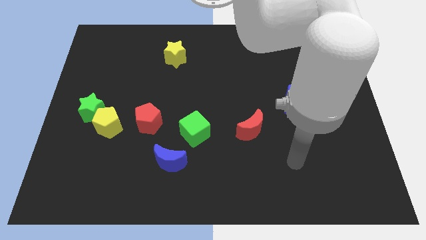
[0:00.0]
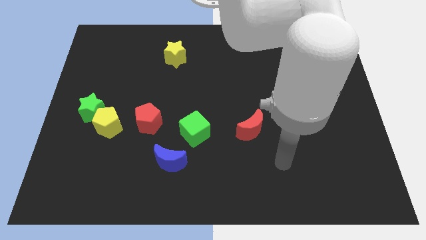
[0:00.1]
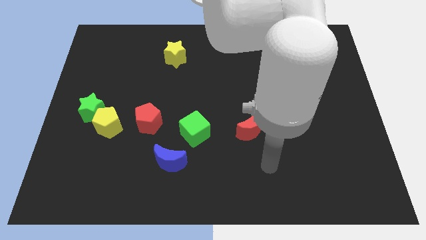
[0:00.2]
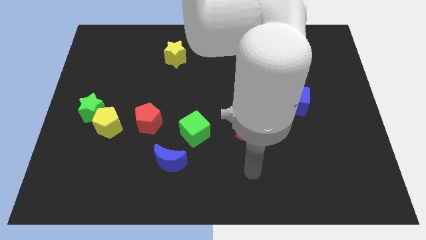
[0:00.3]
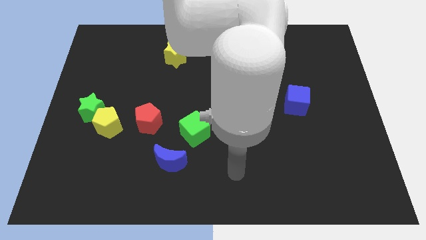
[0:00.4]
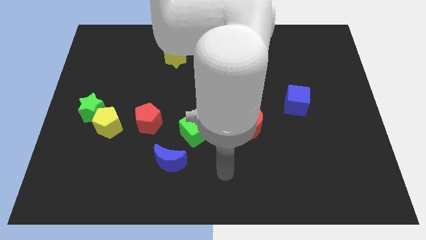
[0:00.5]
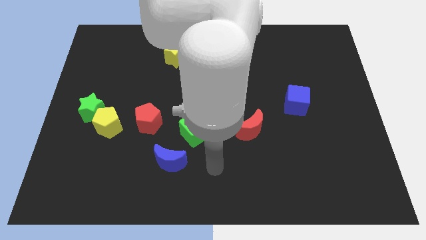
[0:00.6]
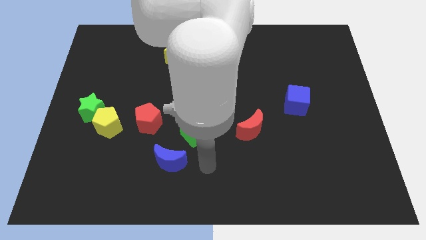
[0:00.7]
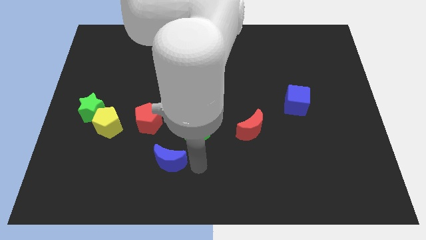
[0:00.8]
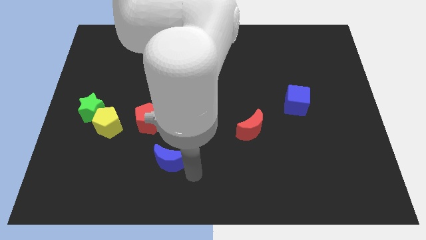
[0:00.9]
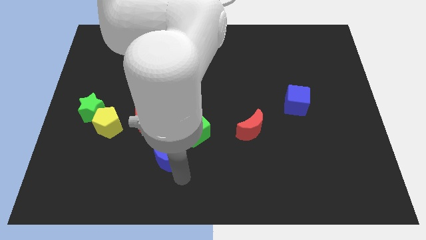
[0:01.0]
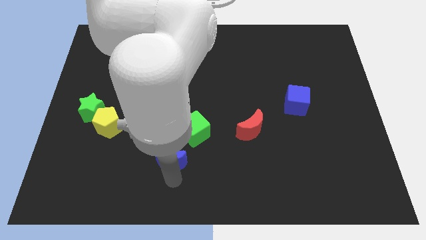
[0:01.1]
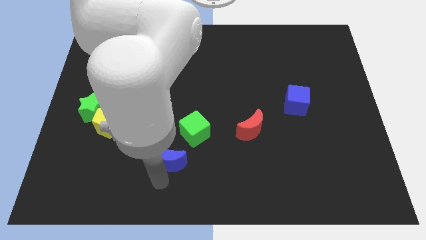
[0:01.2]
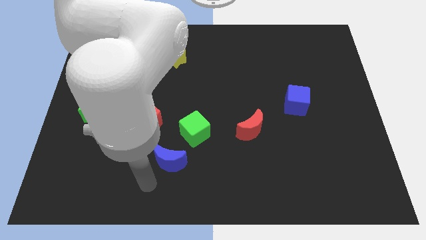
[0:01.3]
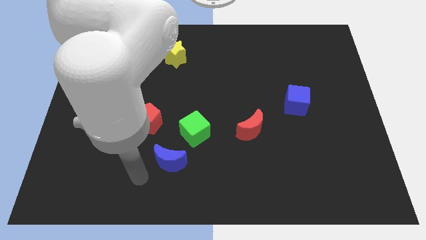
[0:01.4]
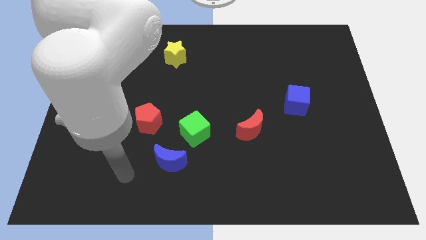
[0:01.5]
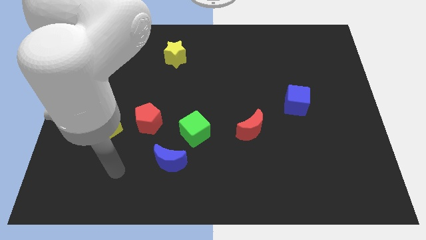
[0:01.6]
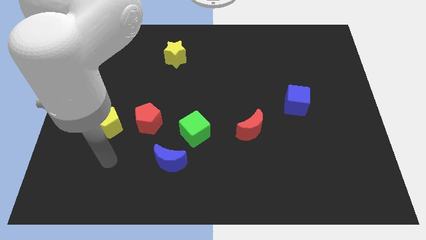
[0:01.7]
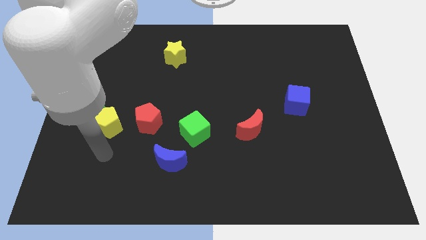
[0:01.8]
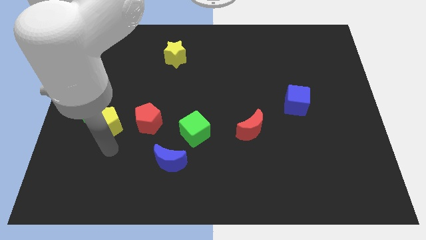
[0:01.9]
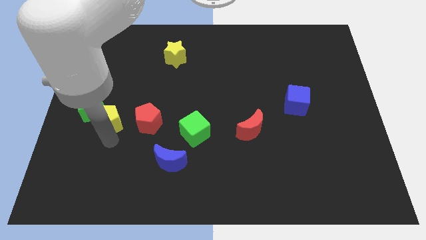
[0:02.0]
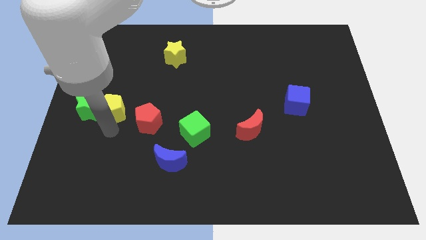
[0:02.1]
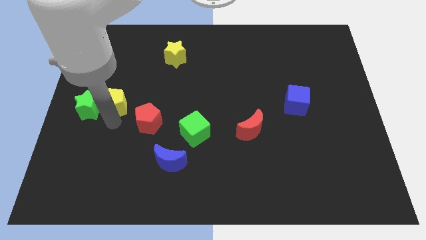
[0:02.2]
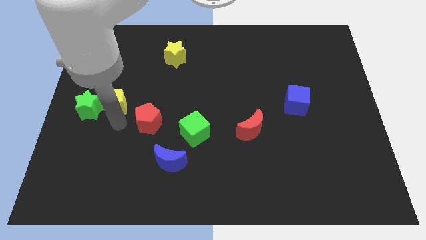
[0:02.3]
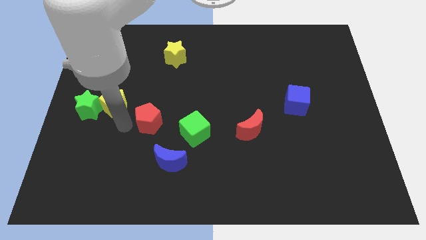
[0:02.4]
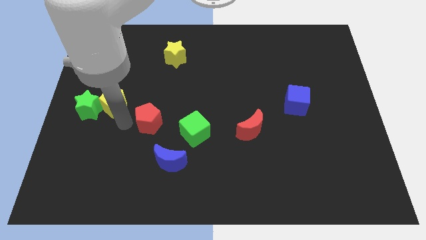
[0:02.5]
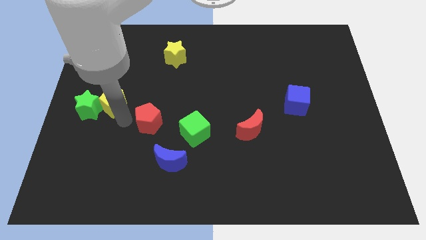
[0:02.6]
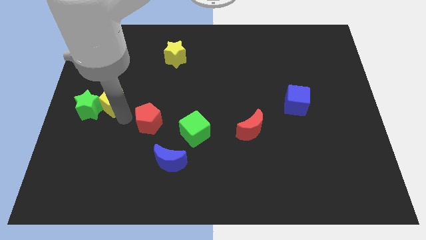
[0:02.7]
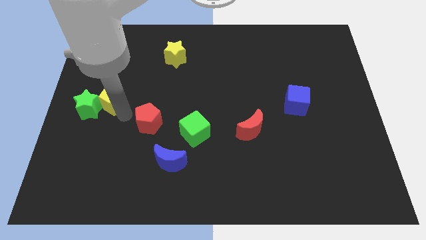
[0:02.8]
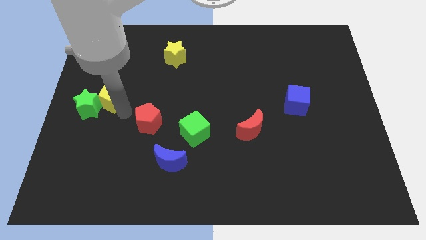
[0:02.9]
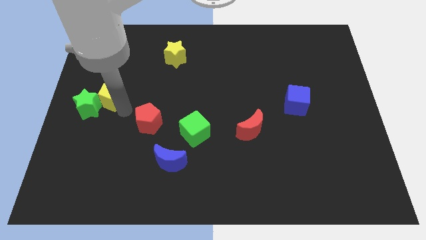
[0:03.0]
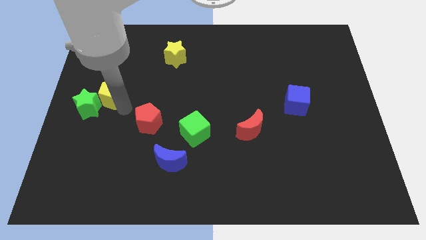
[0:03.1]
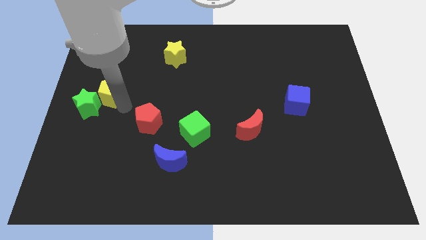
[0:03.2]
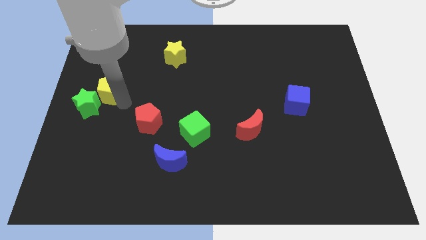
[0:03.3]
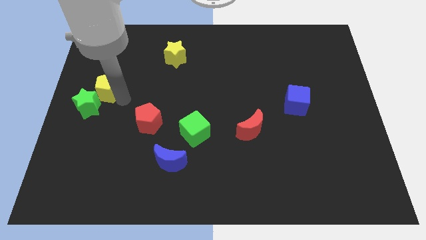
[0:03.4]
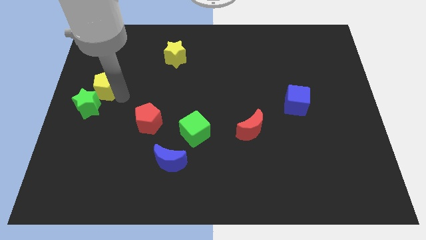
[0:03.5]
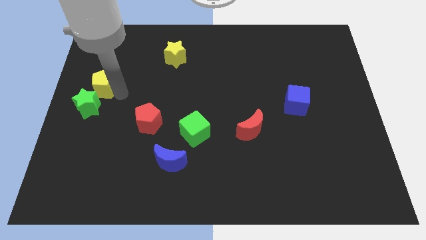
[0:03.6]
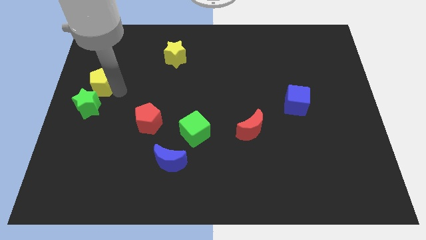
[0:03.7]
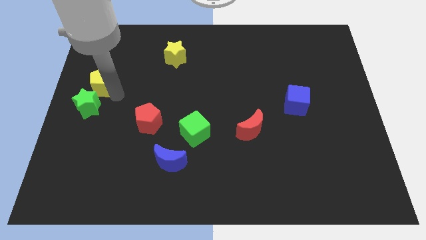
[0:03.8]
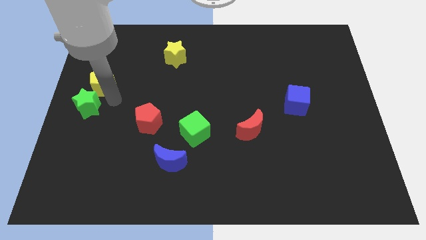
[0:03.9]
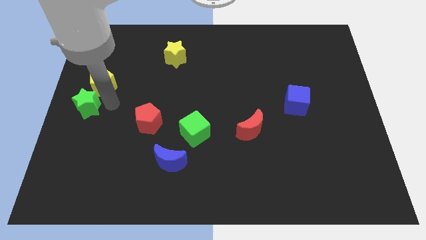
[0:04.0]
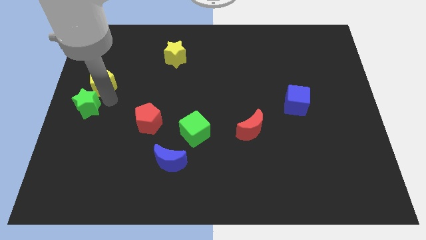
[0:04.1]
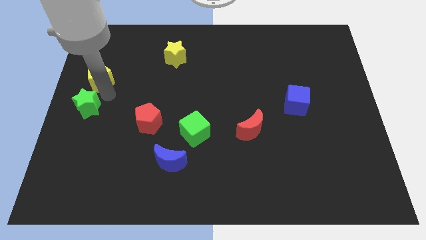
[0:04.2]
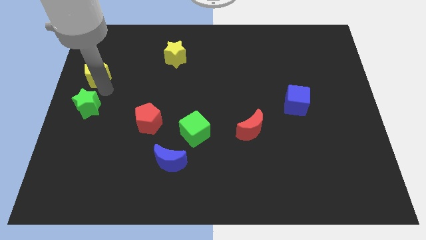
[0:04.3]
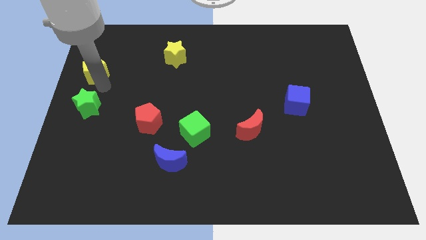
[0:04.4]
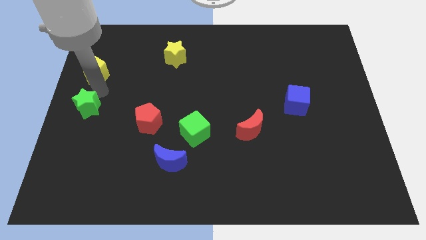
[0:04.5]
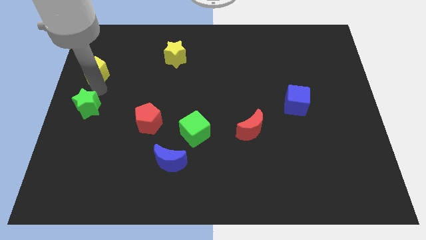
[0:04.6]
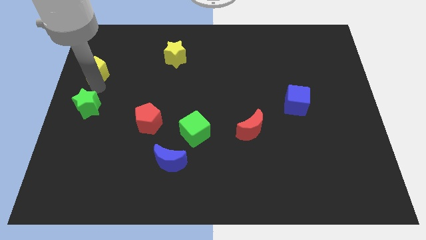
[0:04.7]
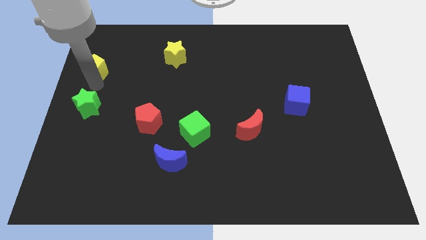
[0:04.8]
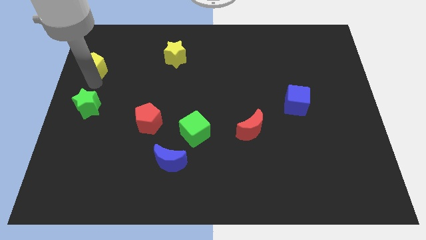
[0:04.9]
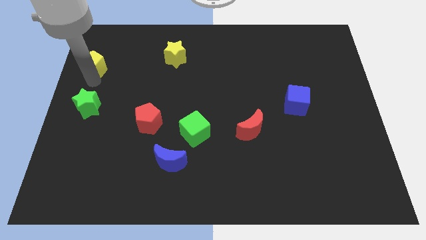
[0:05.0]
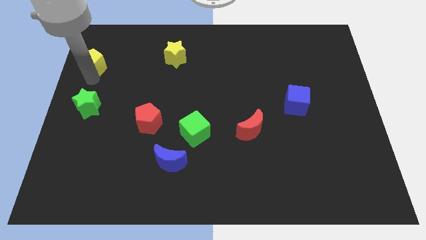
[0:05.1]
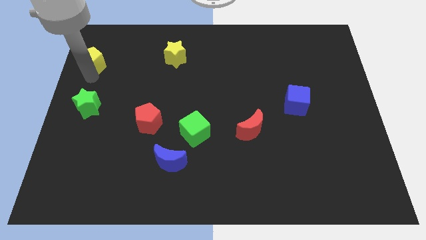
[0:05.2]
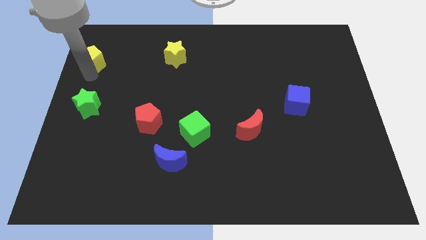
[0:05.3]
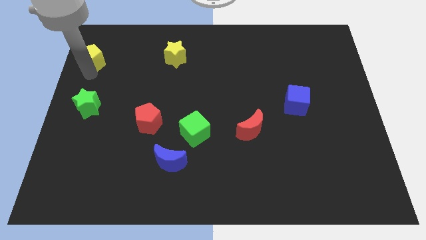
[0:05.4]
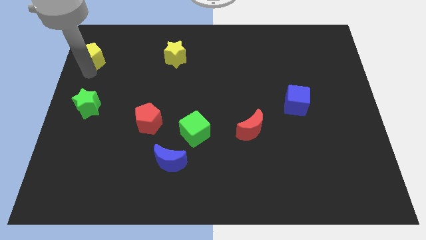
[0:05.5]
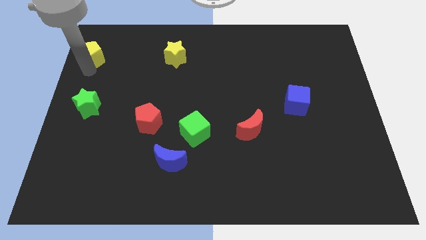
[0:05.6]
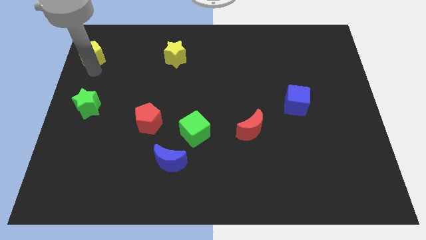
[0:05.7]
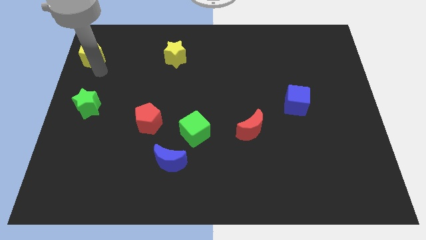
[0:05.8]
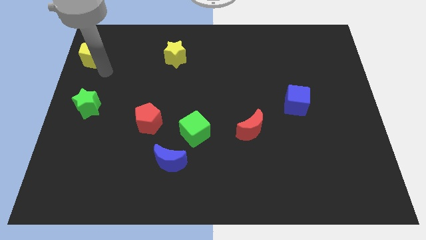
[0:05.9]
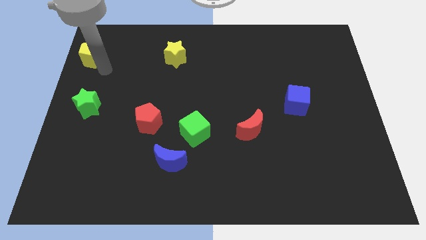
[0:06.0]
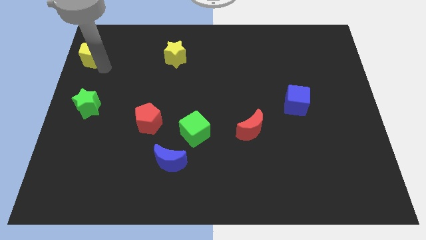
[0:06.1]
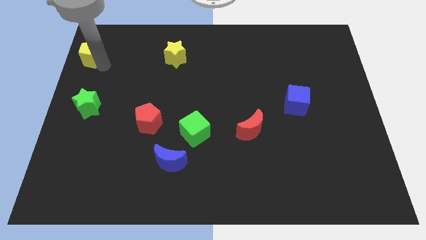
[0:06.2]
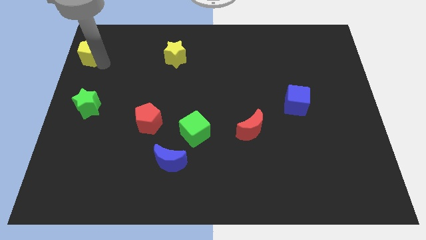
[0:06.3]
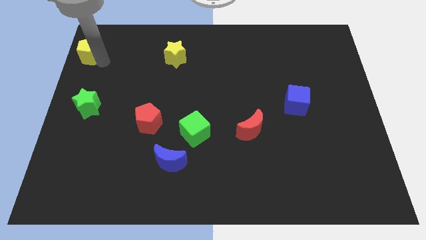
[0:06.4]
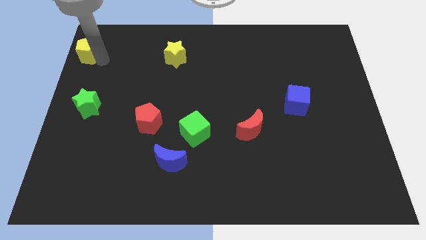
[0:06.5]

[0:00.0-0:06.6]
put the yellow pentagon to the top left of the board
